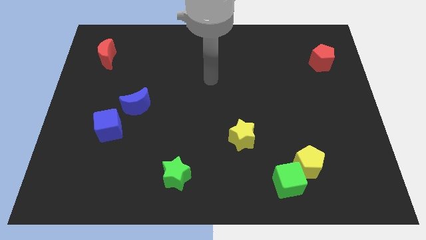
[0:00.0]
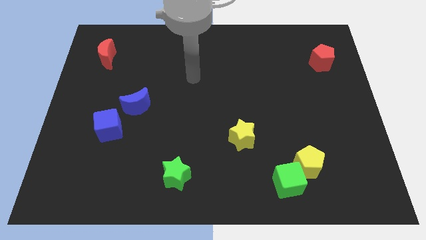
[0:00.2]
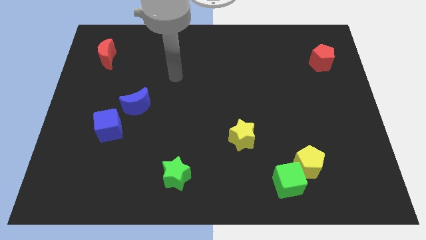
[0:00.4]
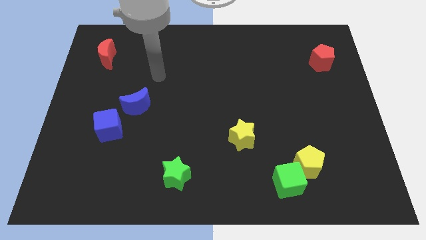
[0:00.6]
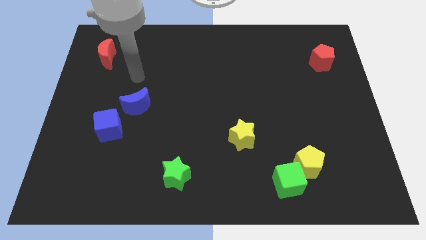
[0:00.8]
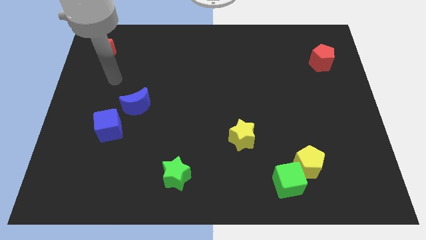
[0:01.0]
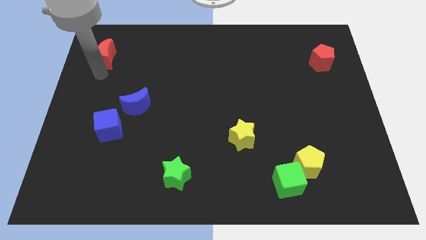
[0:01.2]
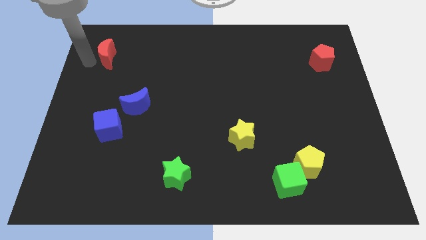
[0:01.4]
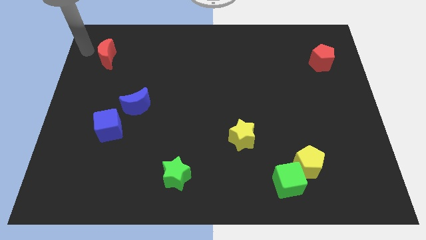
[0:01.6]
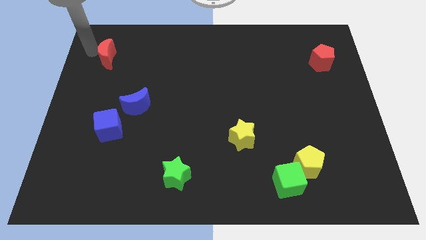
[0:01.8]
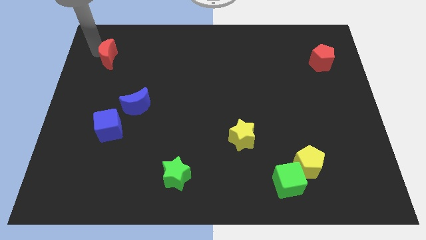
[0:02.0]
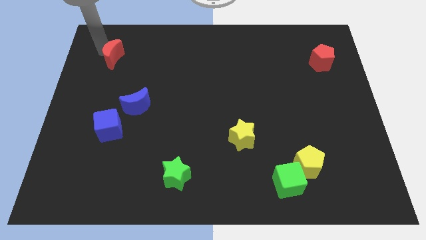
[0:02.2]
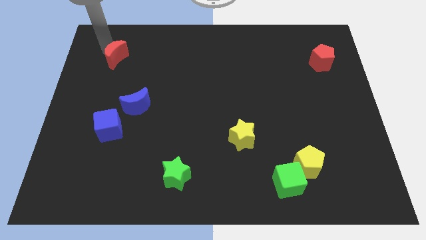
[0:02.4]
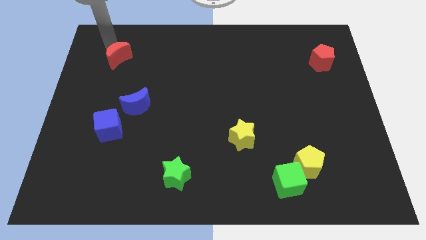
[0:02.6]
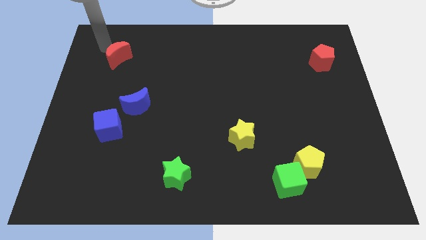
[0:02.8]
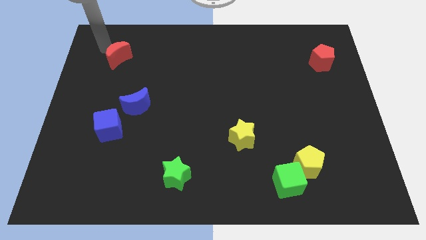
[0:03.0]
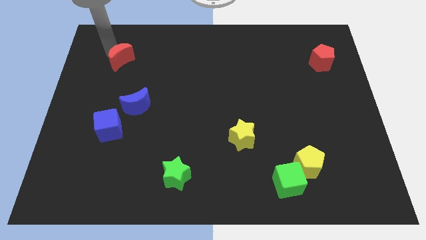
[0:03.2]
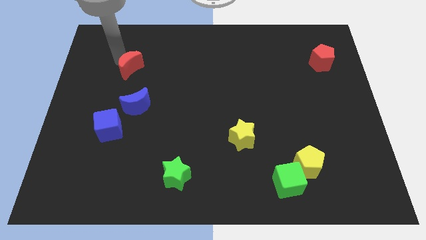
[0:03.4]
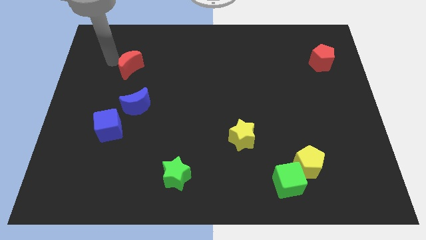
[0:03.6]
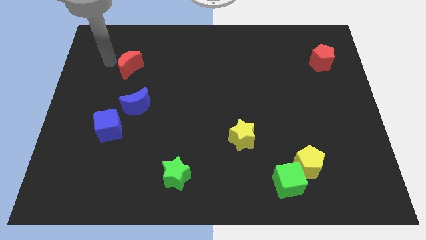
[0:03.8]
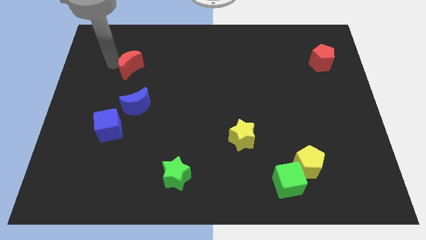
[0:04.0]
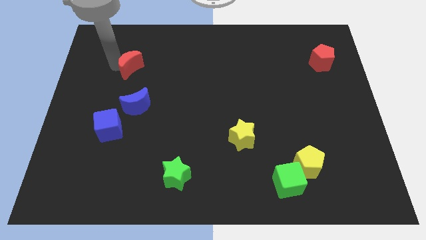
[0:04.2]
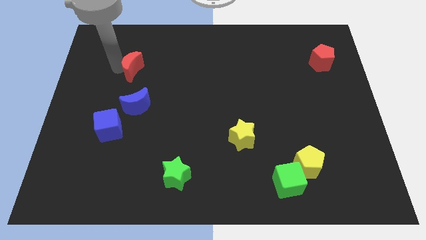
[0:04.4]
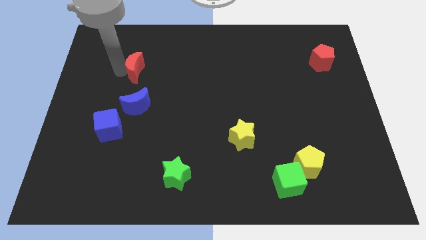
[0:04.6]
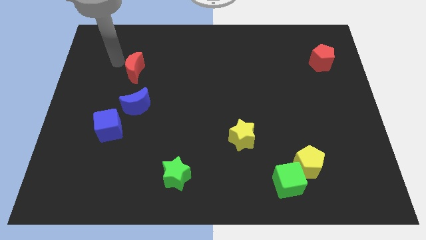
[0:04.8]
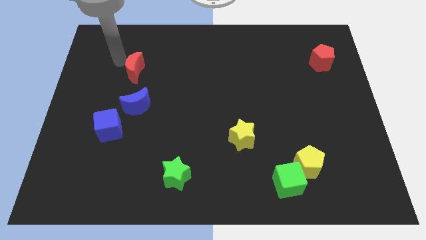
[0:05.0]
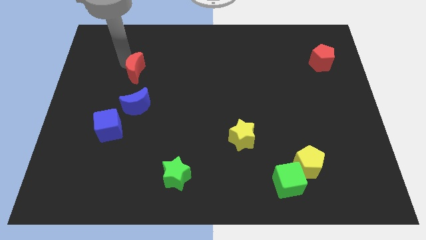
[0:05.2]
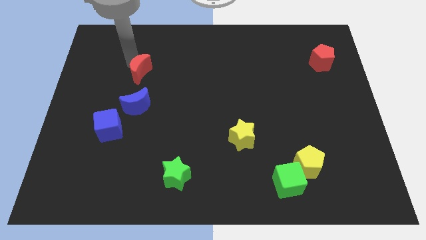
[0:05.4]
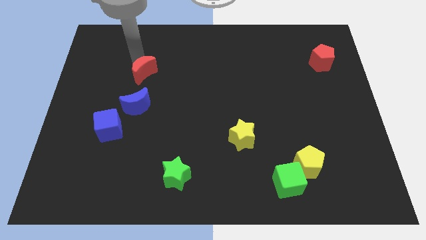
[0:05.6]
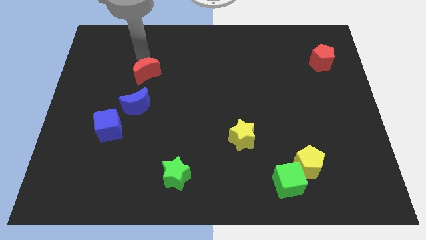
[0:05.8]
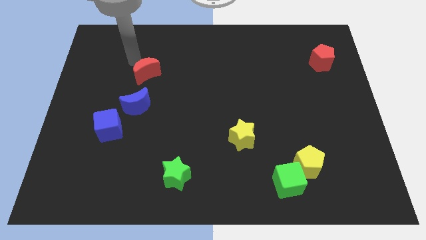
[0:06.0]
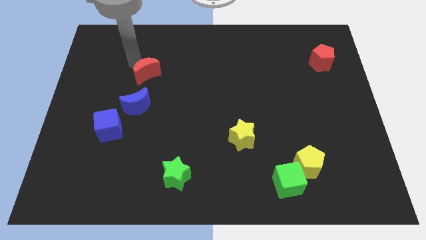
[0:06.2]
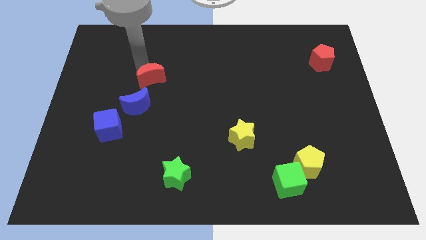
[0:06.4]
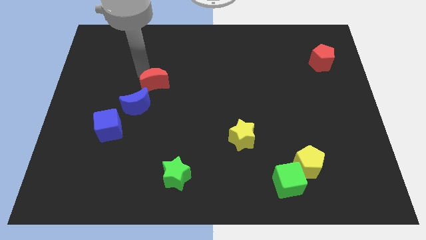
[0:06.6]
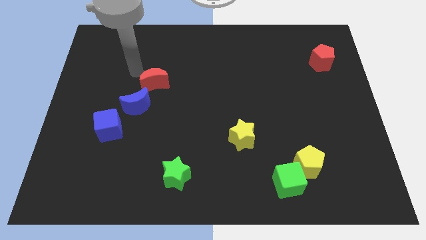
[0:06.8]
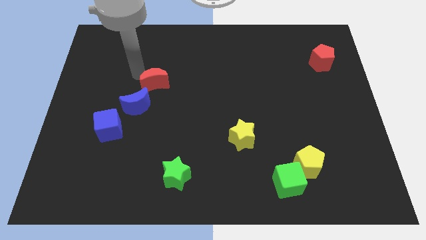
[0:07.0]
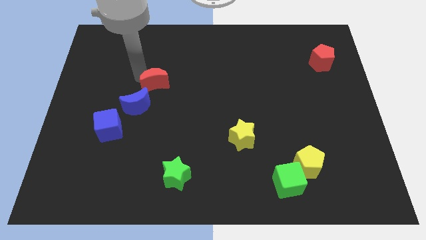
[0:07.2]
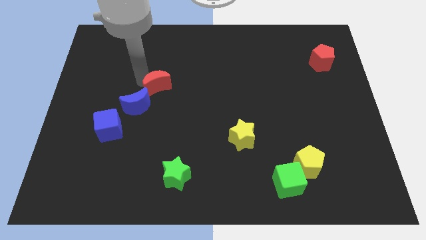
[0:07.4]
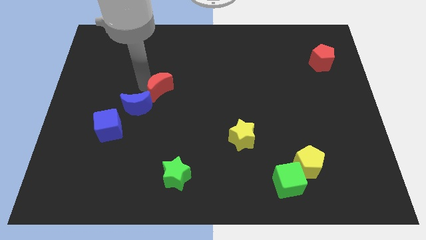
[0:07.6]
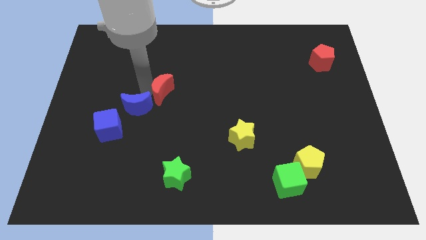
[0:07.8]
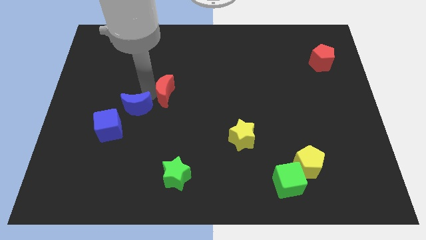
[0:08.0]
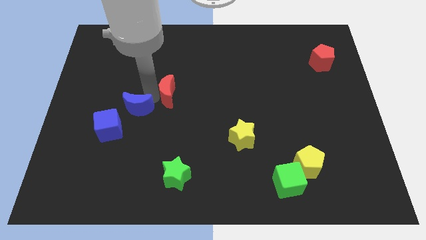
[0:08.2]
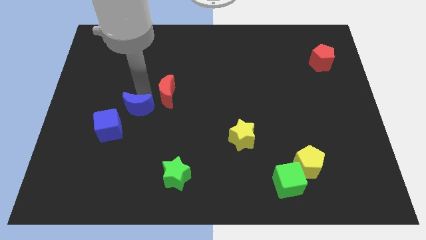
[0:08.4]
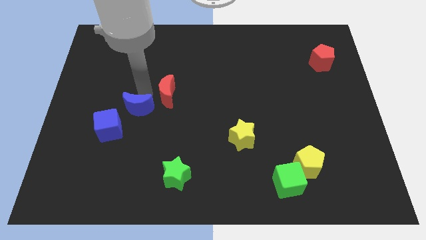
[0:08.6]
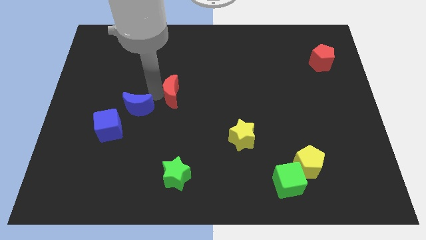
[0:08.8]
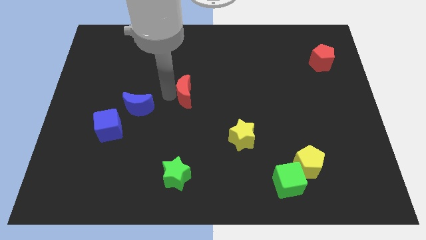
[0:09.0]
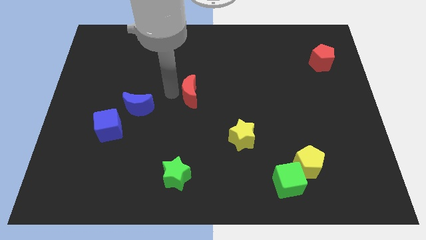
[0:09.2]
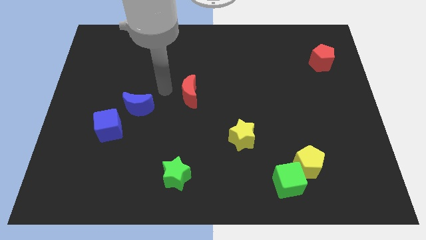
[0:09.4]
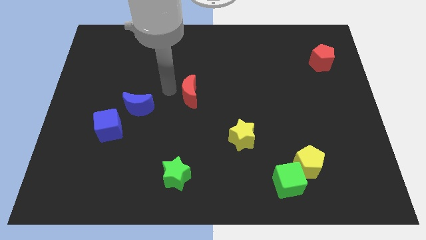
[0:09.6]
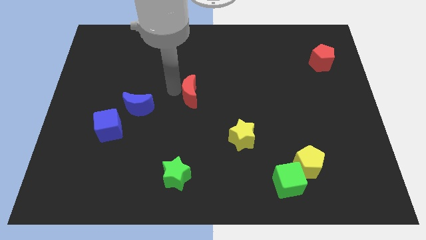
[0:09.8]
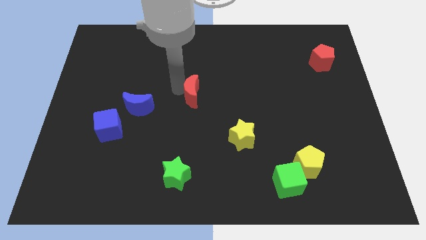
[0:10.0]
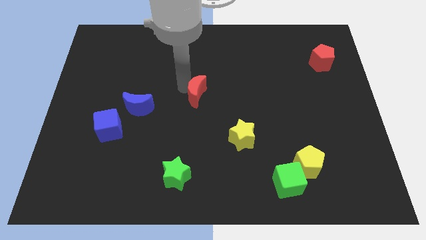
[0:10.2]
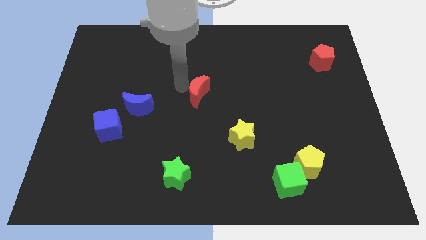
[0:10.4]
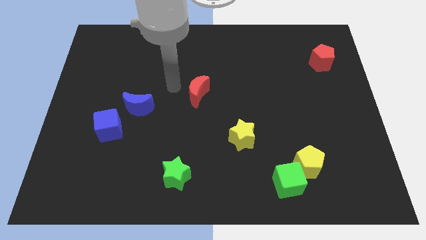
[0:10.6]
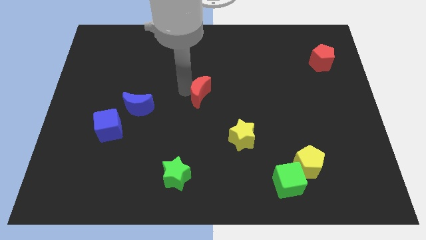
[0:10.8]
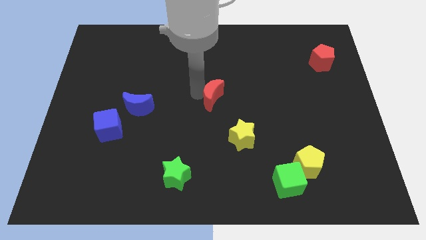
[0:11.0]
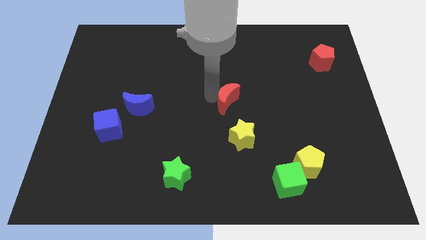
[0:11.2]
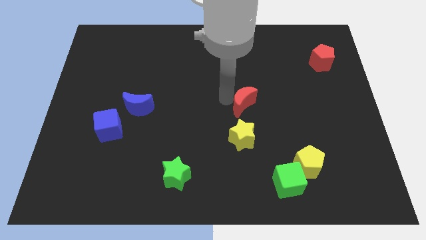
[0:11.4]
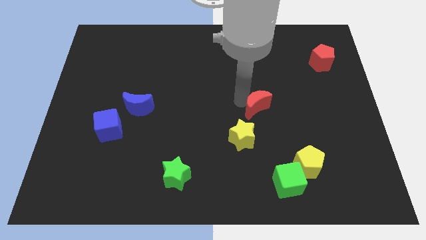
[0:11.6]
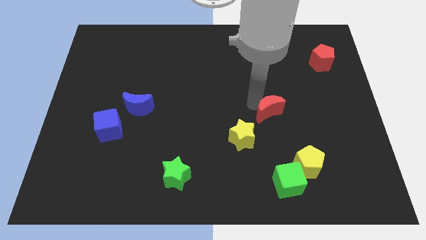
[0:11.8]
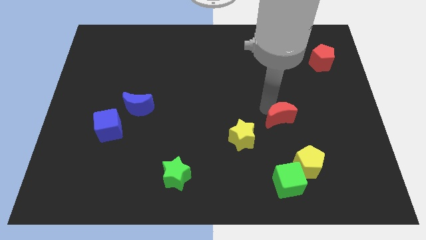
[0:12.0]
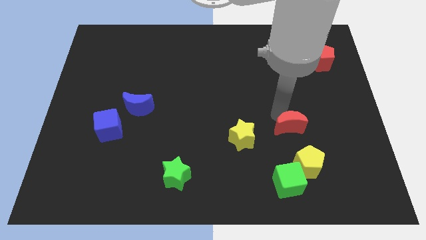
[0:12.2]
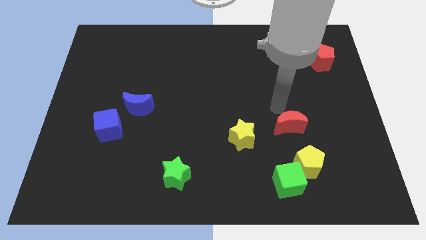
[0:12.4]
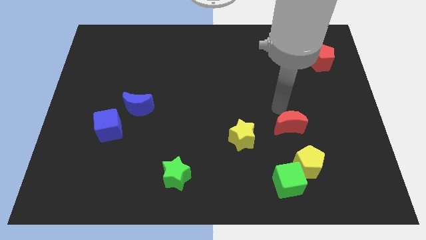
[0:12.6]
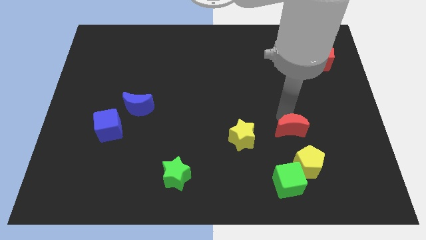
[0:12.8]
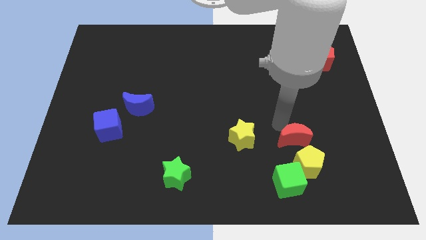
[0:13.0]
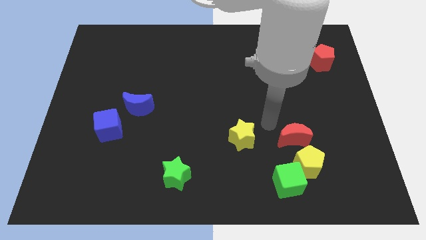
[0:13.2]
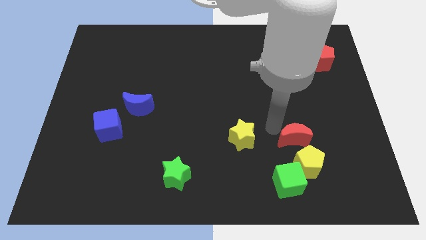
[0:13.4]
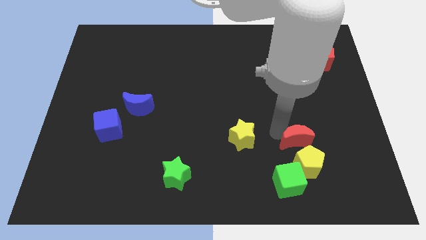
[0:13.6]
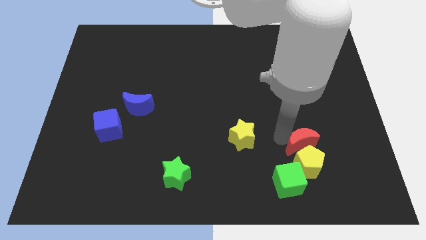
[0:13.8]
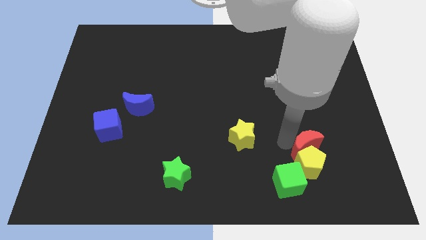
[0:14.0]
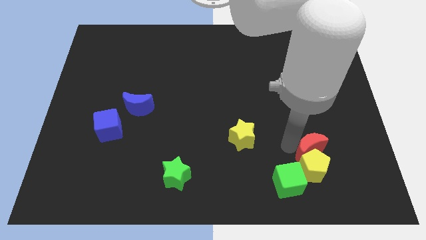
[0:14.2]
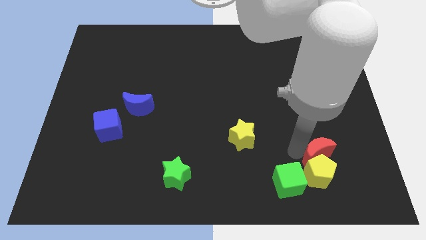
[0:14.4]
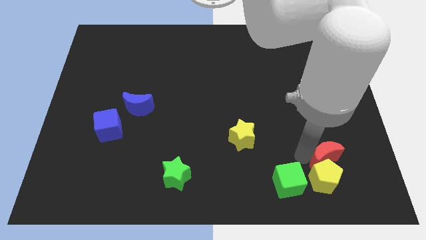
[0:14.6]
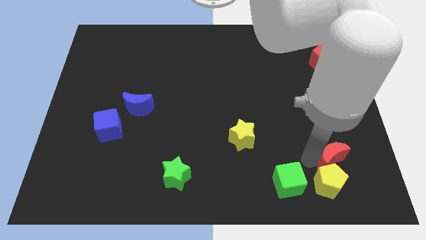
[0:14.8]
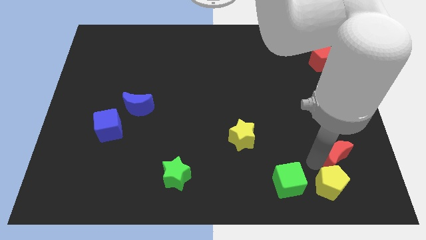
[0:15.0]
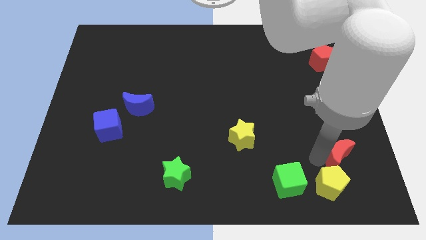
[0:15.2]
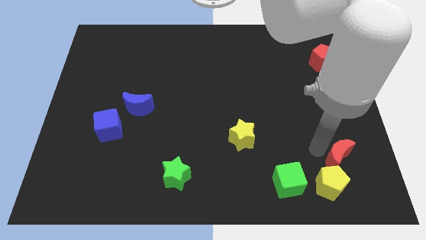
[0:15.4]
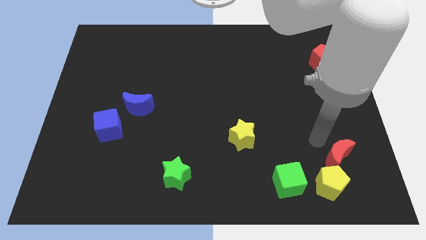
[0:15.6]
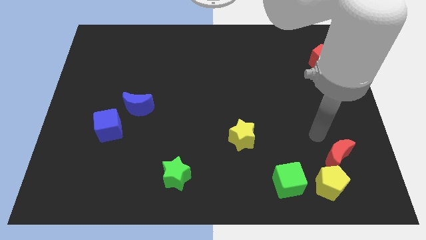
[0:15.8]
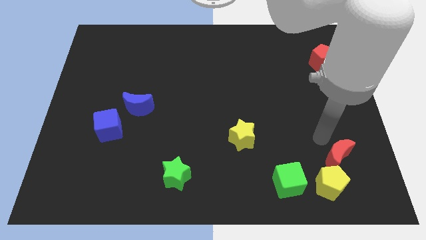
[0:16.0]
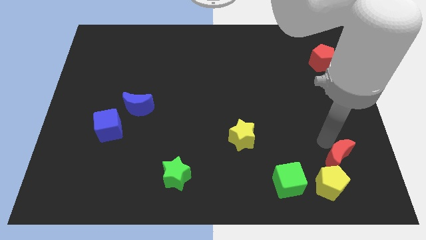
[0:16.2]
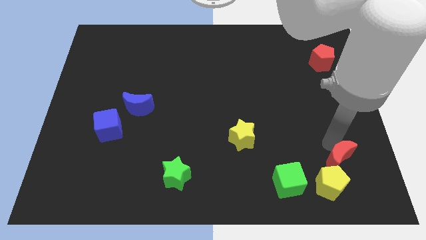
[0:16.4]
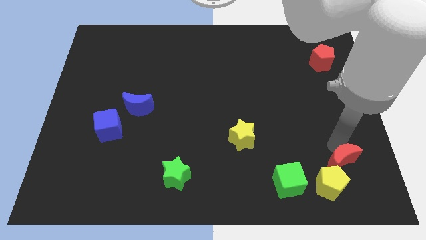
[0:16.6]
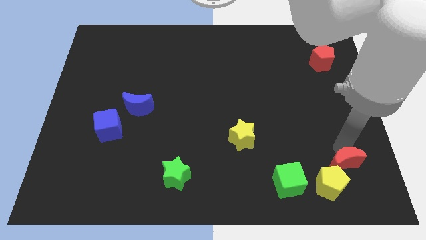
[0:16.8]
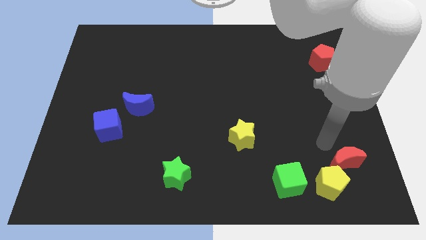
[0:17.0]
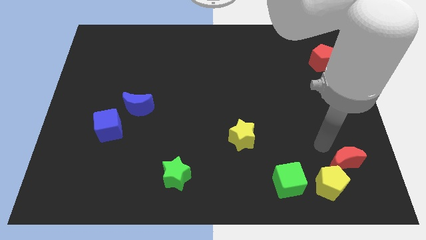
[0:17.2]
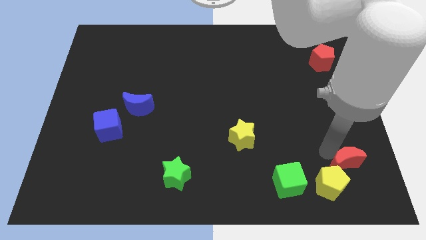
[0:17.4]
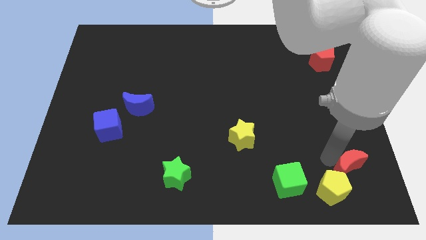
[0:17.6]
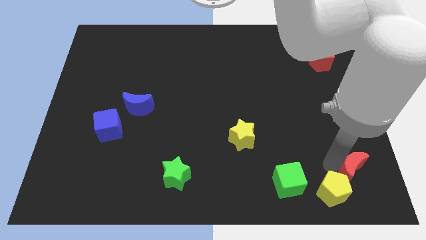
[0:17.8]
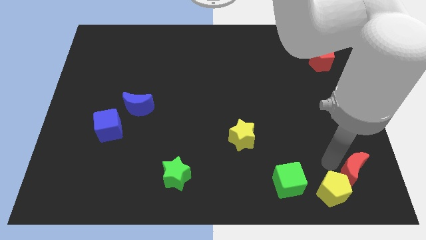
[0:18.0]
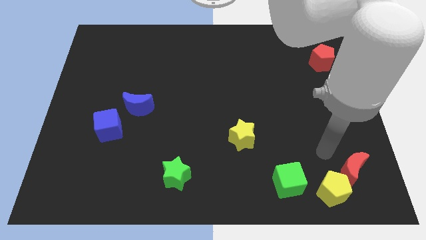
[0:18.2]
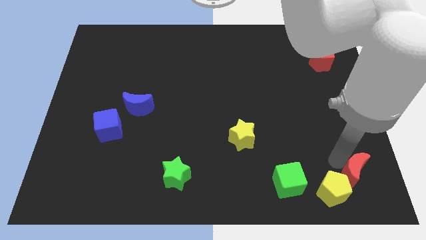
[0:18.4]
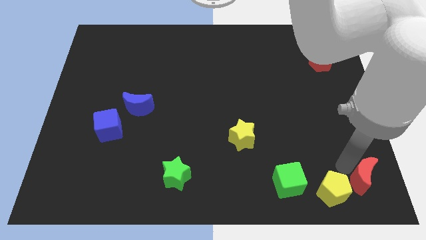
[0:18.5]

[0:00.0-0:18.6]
move the red moon to the bottom right of the board
